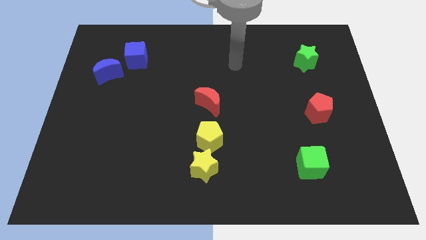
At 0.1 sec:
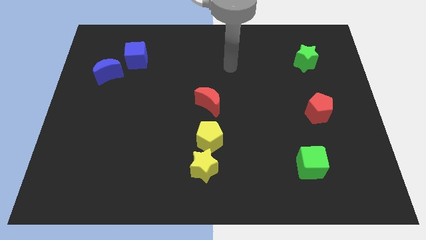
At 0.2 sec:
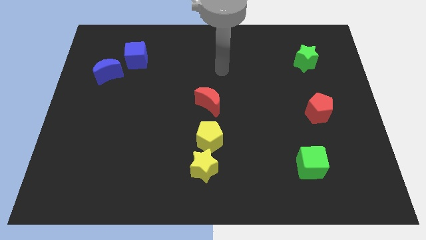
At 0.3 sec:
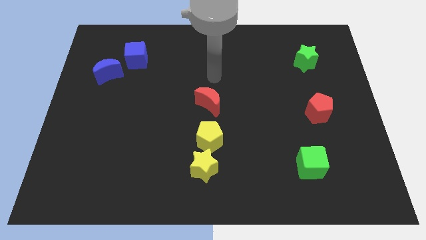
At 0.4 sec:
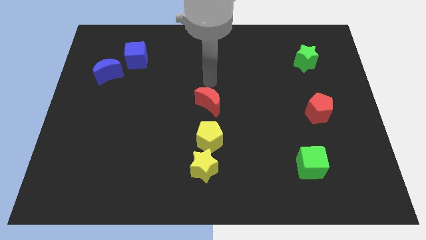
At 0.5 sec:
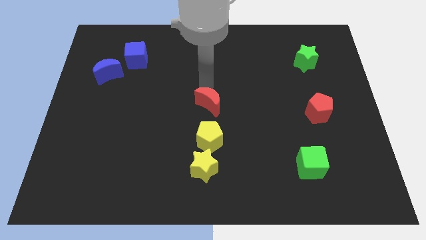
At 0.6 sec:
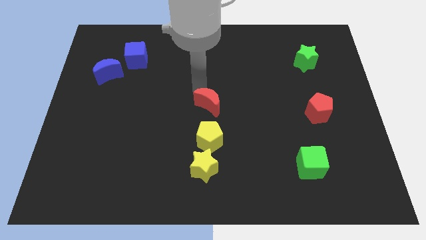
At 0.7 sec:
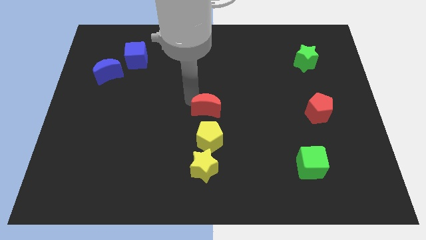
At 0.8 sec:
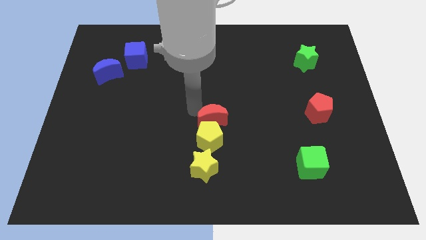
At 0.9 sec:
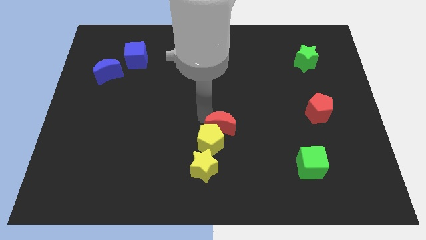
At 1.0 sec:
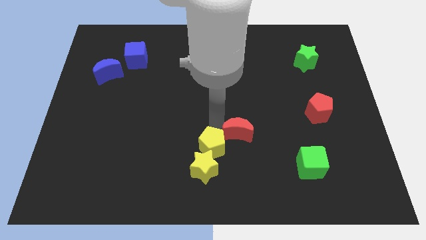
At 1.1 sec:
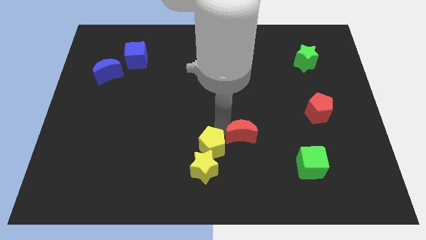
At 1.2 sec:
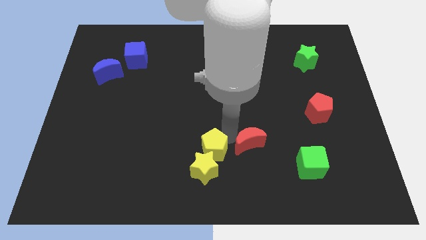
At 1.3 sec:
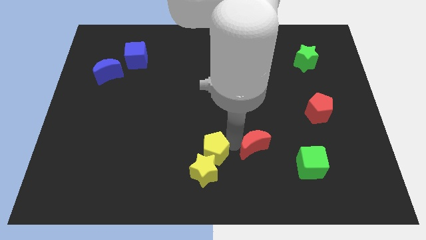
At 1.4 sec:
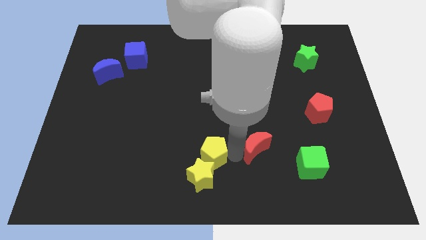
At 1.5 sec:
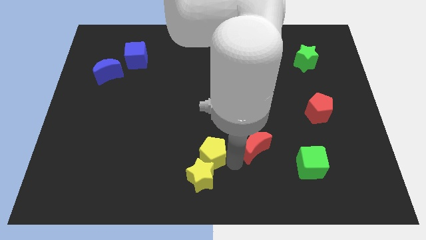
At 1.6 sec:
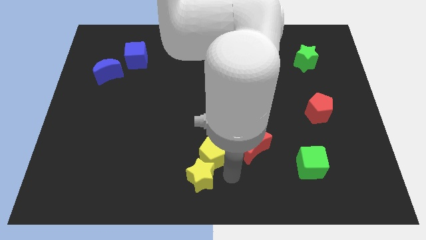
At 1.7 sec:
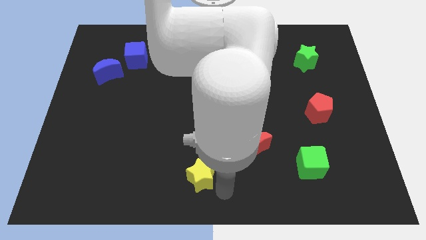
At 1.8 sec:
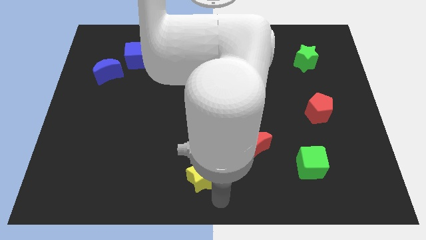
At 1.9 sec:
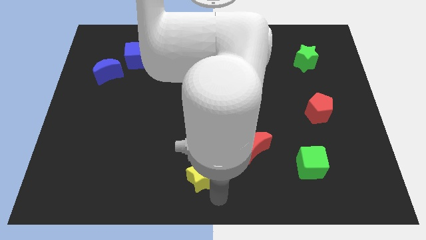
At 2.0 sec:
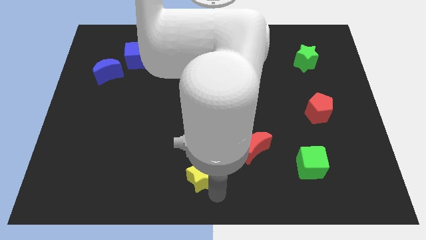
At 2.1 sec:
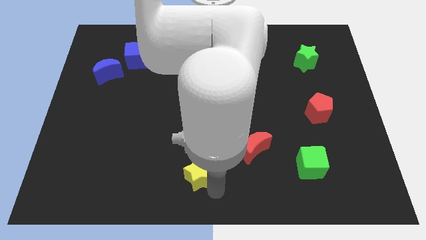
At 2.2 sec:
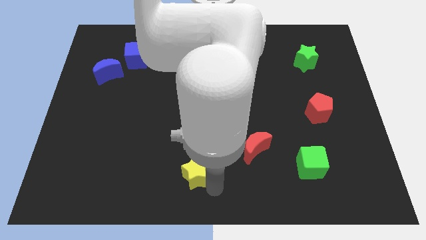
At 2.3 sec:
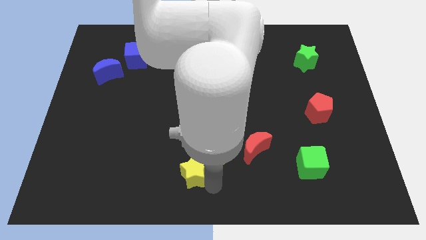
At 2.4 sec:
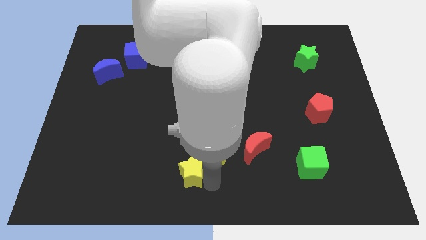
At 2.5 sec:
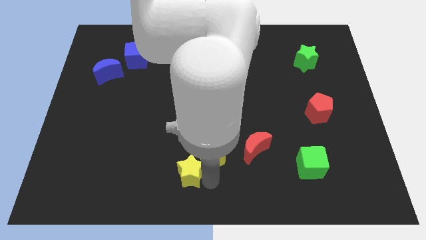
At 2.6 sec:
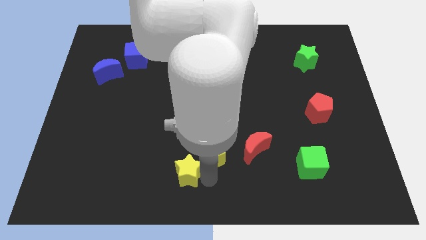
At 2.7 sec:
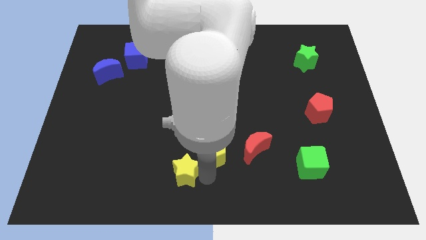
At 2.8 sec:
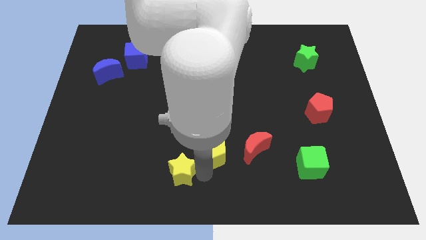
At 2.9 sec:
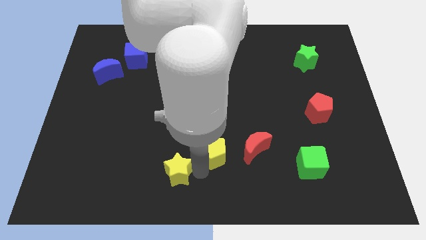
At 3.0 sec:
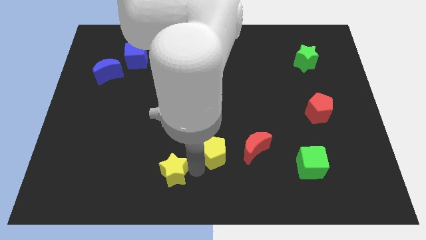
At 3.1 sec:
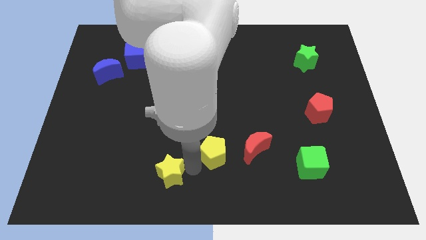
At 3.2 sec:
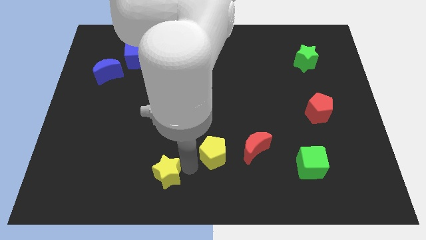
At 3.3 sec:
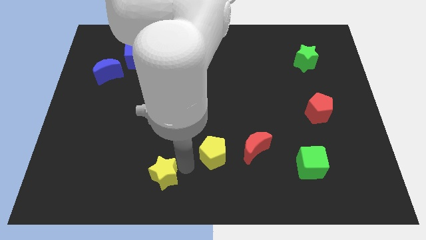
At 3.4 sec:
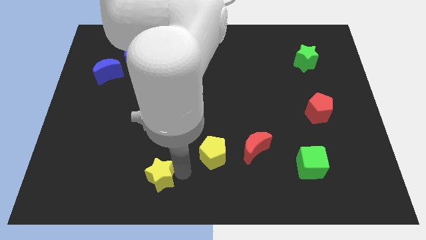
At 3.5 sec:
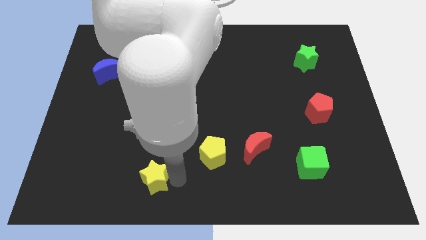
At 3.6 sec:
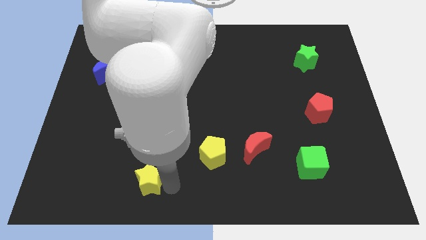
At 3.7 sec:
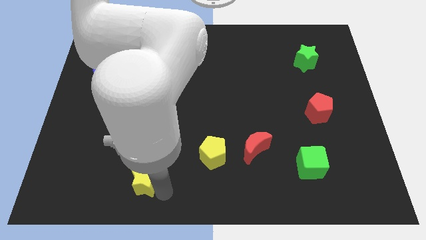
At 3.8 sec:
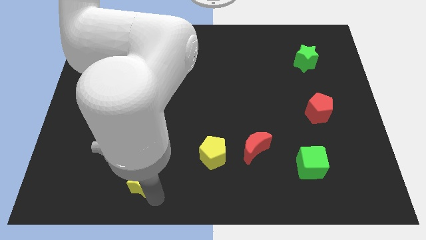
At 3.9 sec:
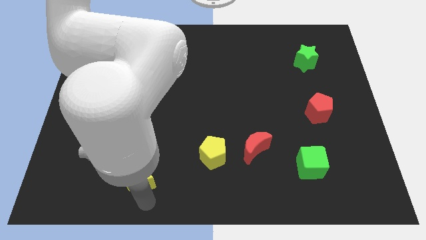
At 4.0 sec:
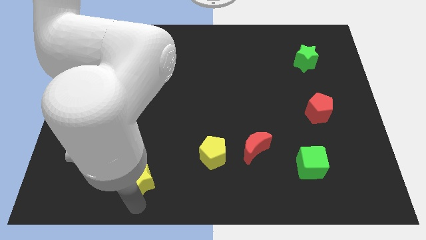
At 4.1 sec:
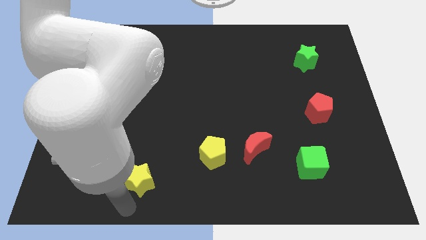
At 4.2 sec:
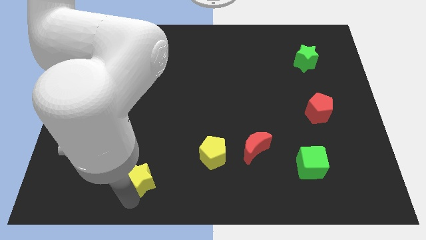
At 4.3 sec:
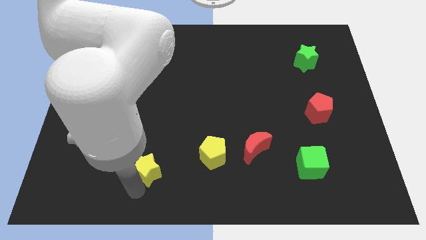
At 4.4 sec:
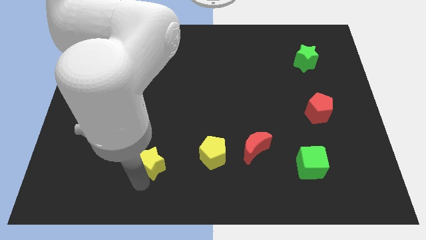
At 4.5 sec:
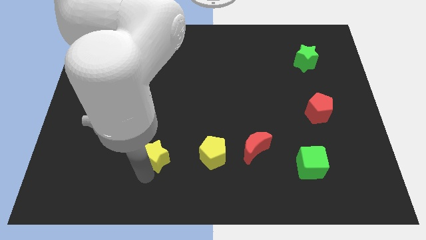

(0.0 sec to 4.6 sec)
slightly push the yellow star up and to the left

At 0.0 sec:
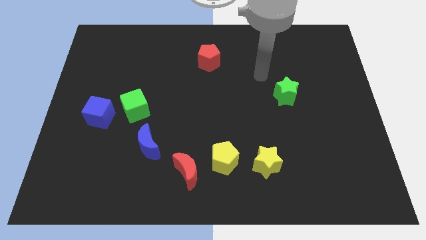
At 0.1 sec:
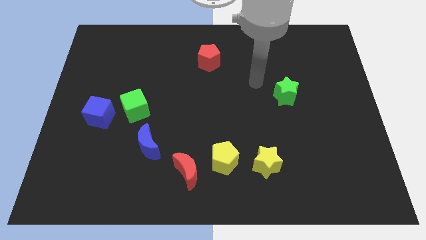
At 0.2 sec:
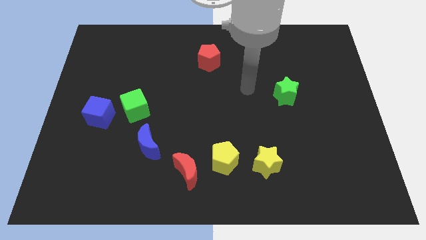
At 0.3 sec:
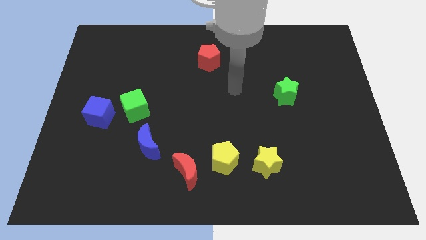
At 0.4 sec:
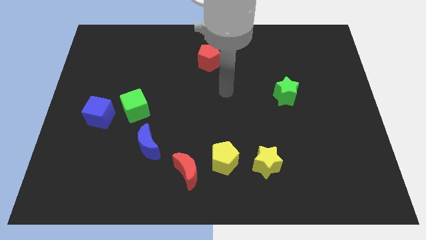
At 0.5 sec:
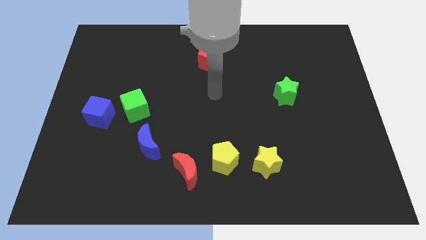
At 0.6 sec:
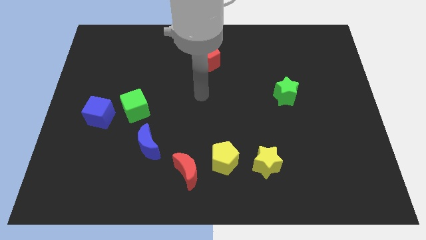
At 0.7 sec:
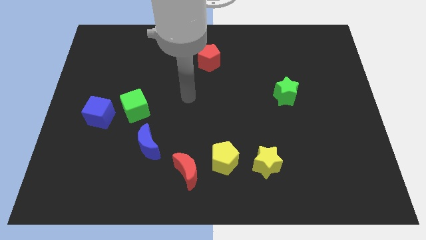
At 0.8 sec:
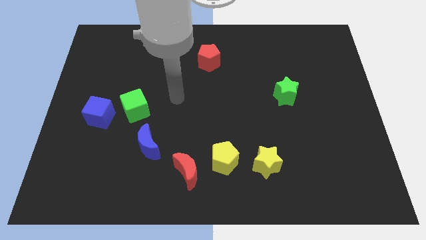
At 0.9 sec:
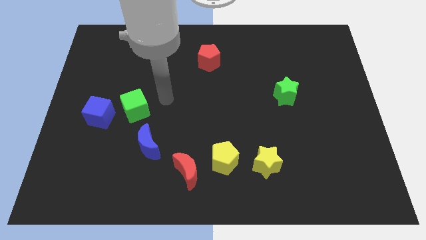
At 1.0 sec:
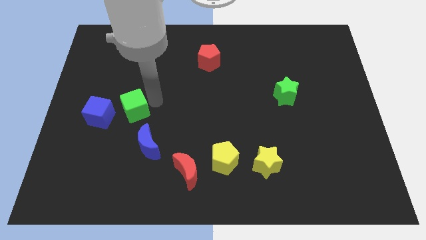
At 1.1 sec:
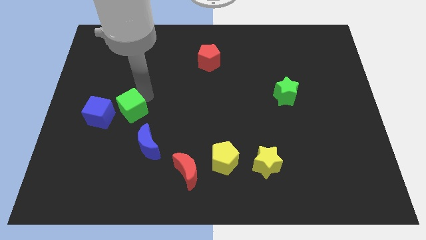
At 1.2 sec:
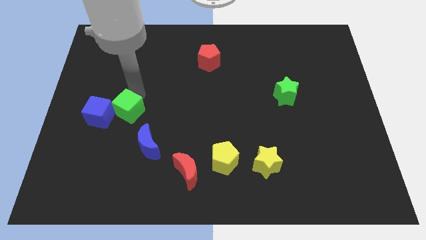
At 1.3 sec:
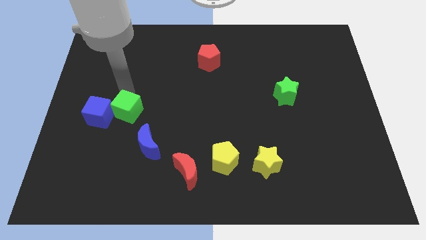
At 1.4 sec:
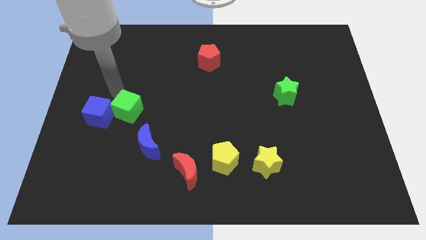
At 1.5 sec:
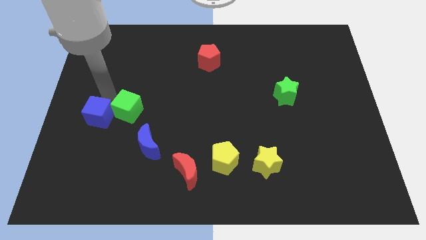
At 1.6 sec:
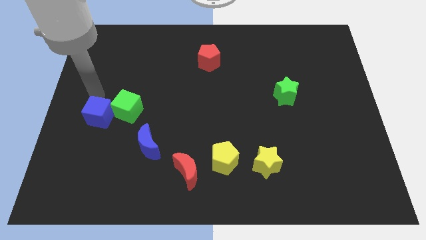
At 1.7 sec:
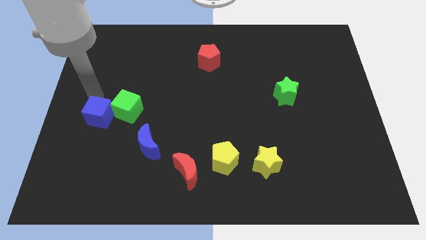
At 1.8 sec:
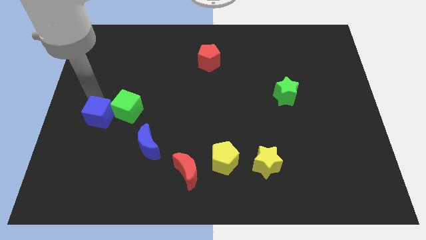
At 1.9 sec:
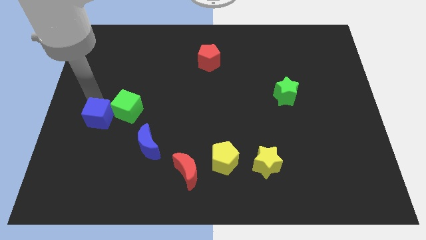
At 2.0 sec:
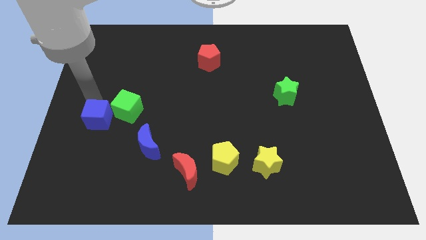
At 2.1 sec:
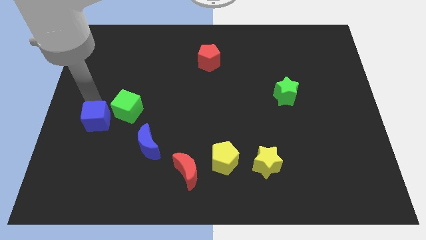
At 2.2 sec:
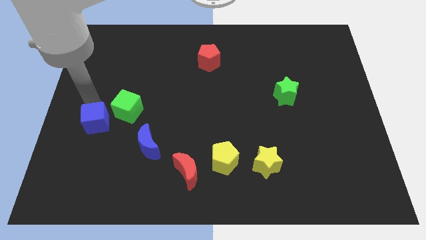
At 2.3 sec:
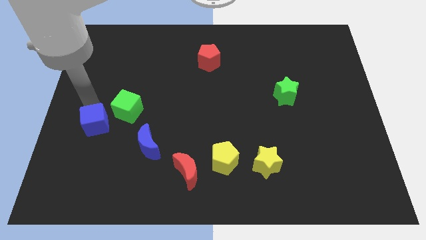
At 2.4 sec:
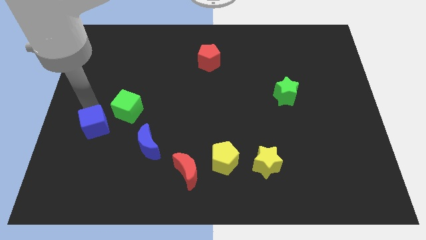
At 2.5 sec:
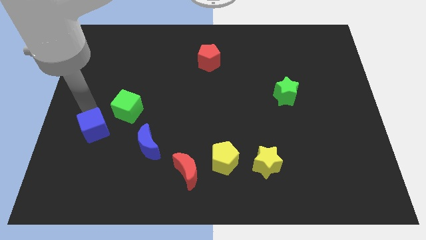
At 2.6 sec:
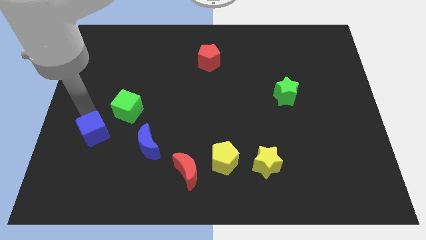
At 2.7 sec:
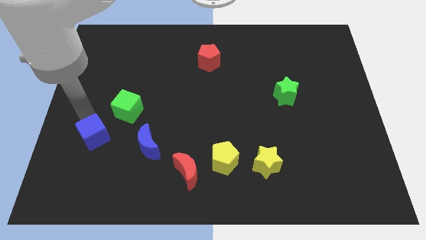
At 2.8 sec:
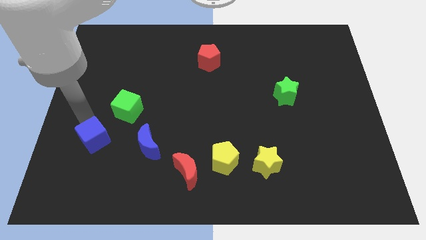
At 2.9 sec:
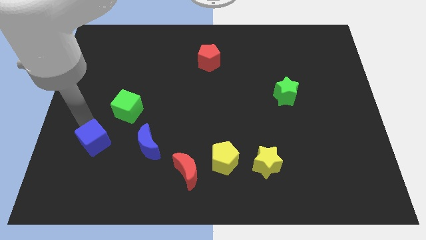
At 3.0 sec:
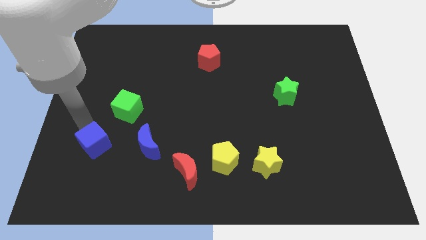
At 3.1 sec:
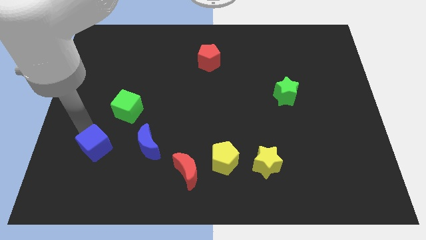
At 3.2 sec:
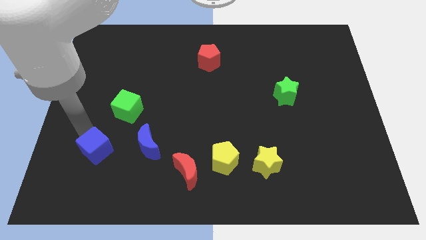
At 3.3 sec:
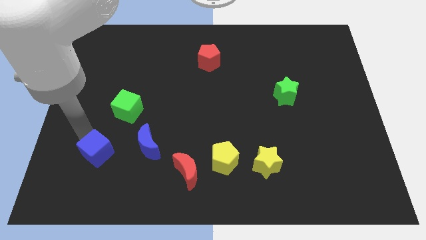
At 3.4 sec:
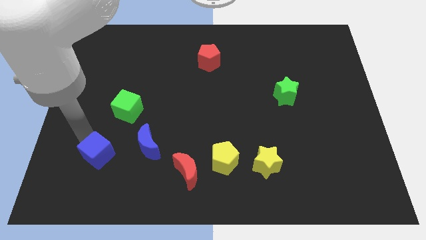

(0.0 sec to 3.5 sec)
slide the blue cube a bit diagonally down and right
